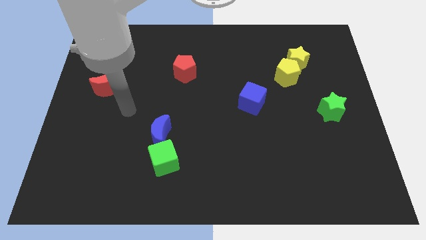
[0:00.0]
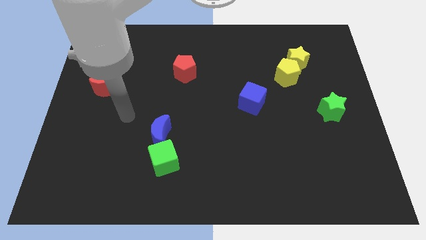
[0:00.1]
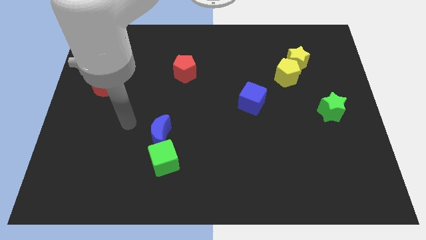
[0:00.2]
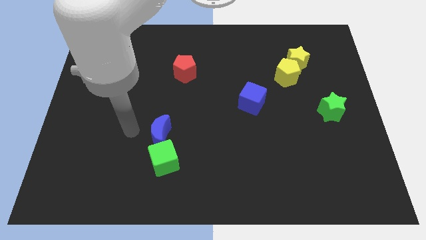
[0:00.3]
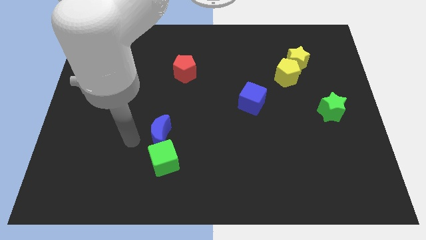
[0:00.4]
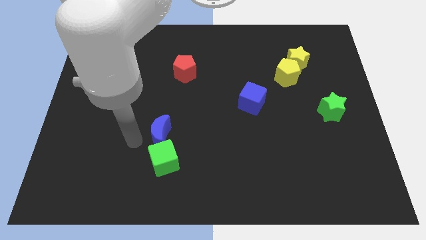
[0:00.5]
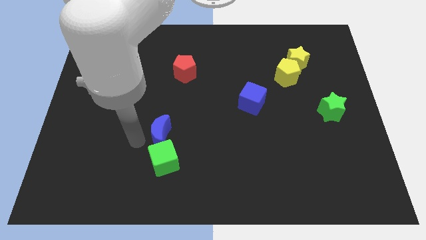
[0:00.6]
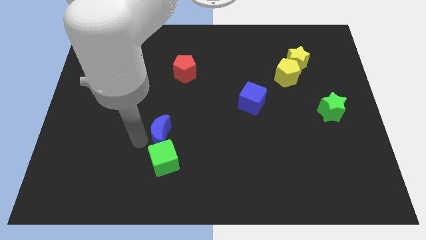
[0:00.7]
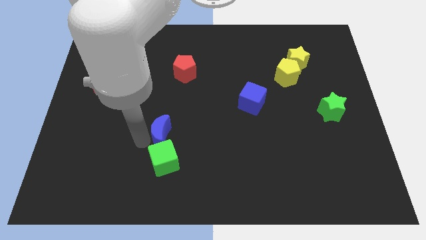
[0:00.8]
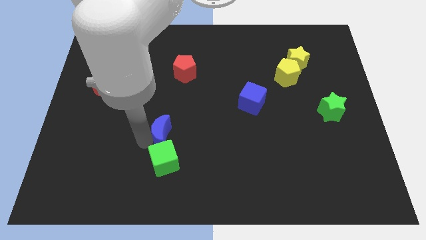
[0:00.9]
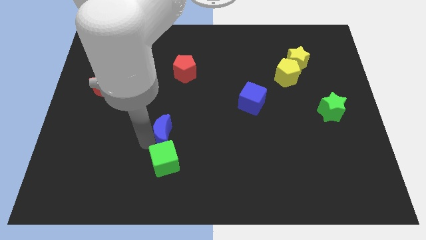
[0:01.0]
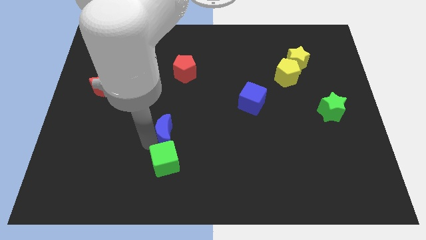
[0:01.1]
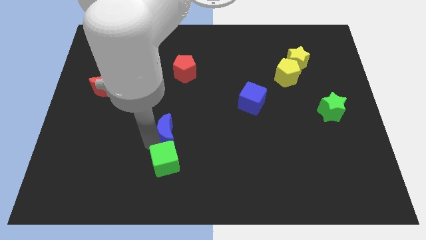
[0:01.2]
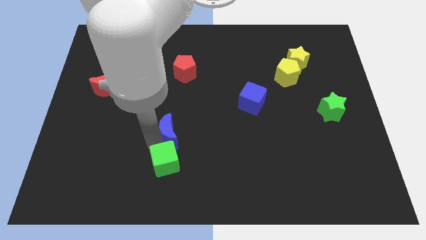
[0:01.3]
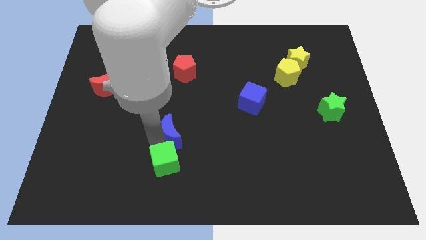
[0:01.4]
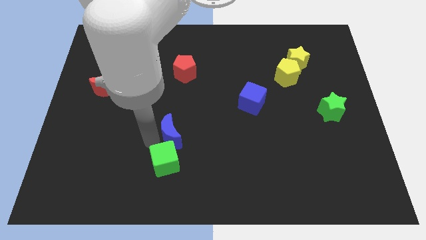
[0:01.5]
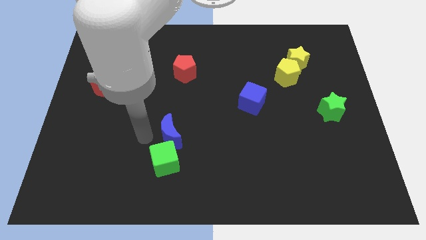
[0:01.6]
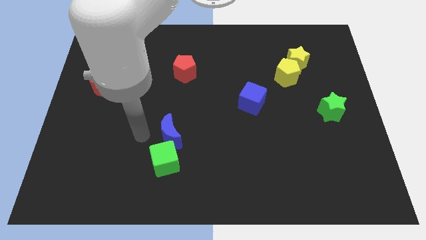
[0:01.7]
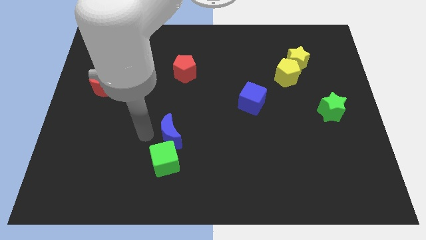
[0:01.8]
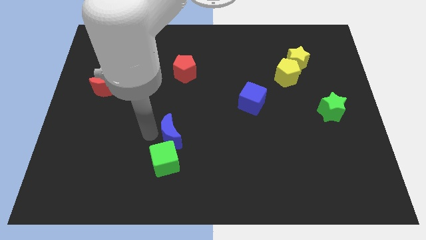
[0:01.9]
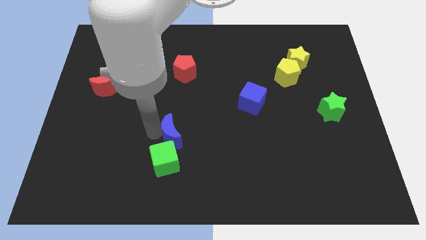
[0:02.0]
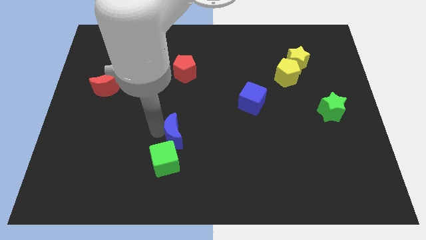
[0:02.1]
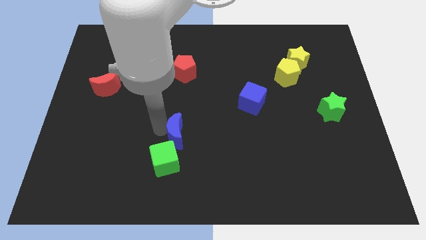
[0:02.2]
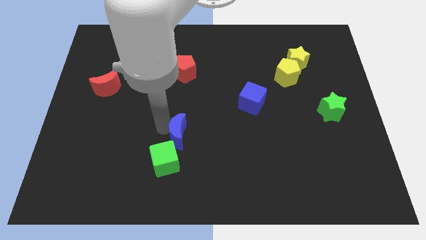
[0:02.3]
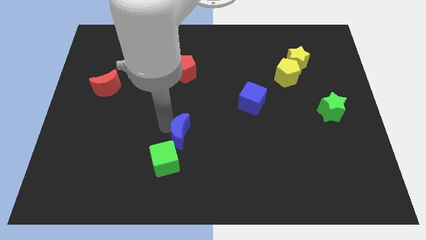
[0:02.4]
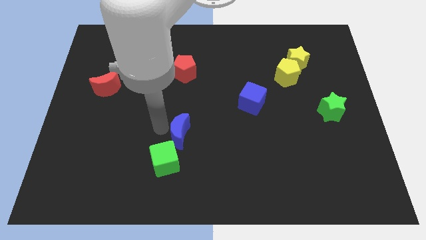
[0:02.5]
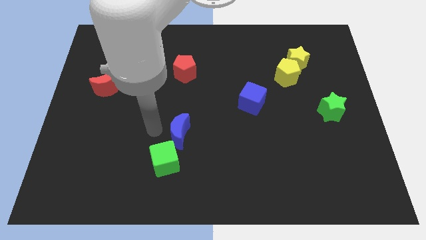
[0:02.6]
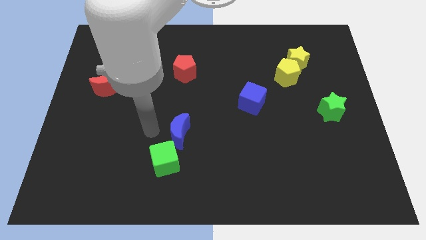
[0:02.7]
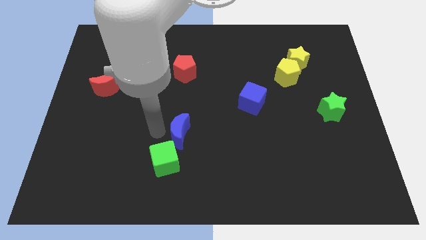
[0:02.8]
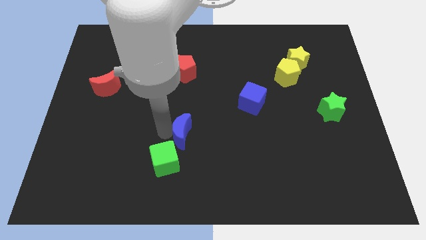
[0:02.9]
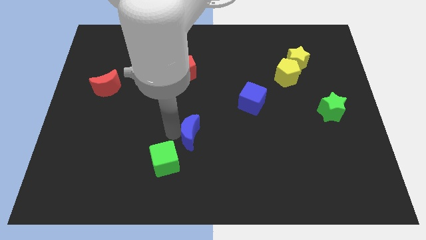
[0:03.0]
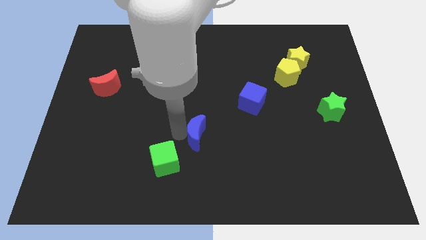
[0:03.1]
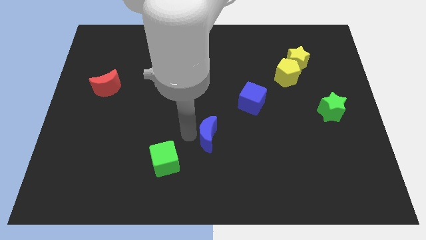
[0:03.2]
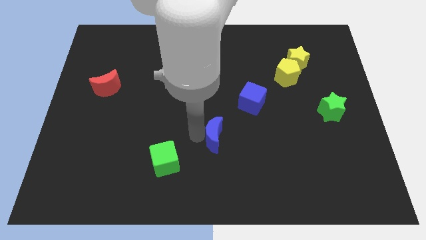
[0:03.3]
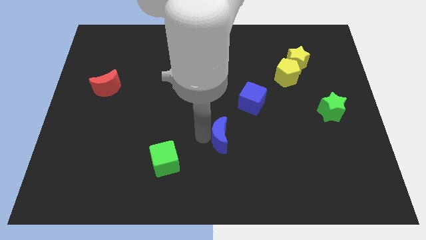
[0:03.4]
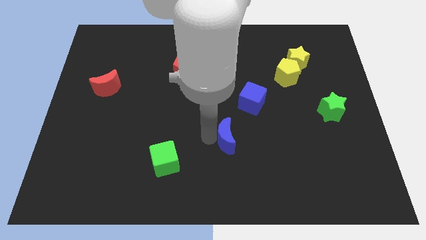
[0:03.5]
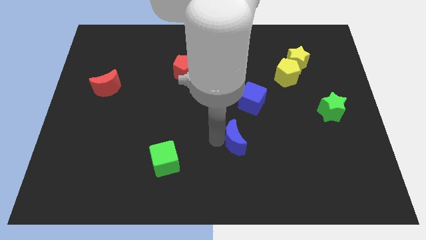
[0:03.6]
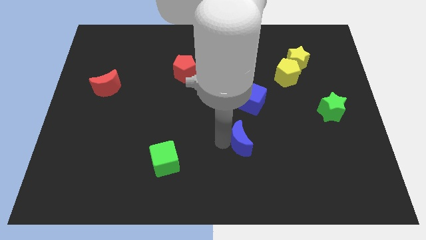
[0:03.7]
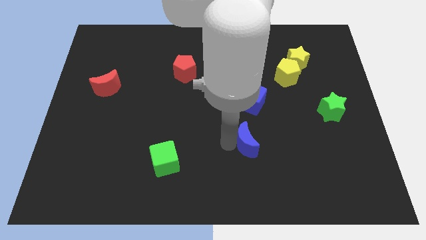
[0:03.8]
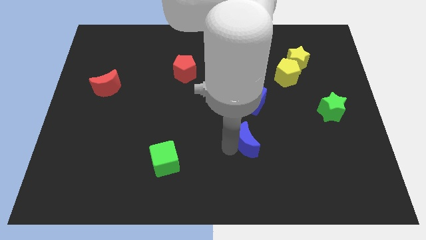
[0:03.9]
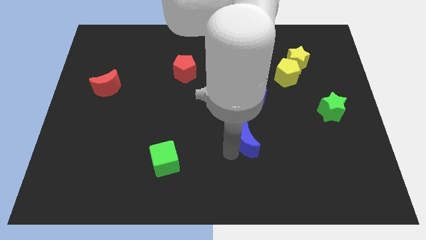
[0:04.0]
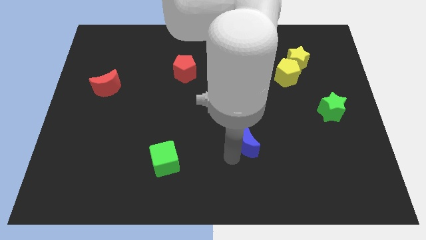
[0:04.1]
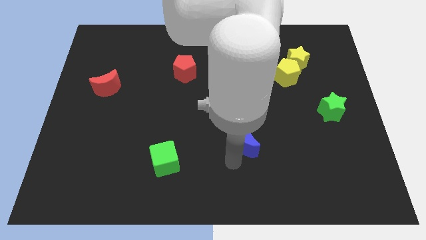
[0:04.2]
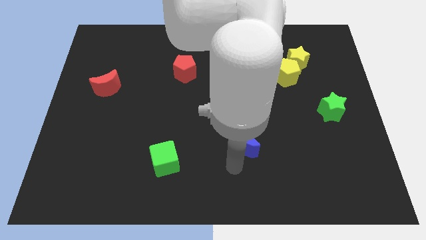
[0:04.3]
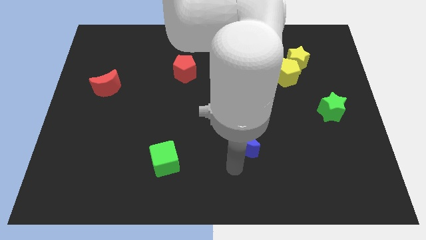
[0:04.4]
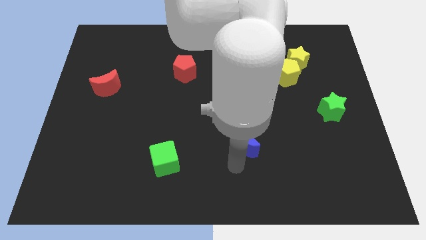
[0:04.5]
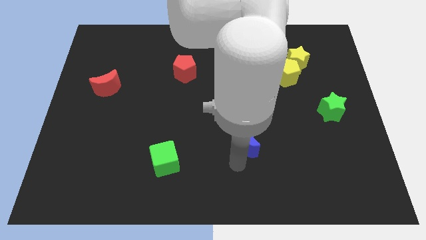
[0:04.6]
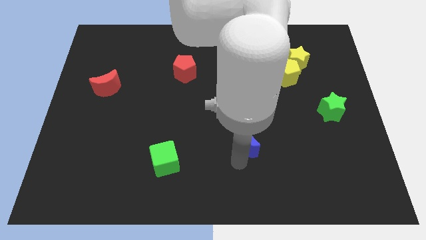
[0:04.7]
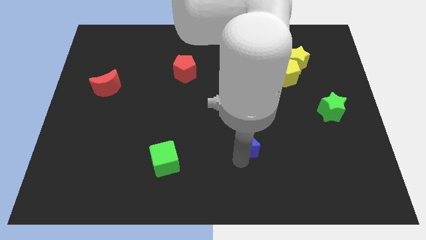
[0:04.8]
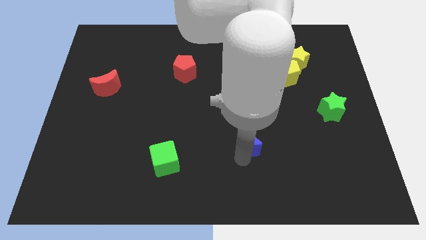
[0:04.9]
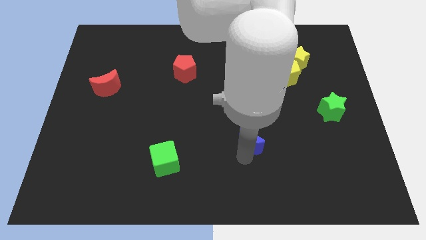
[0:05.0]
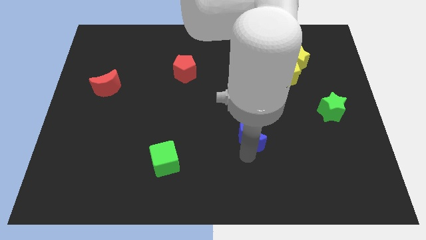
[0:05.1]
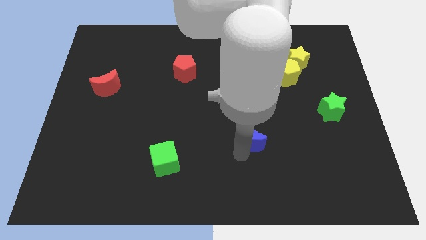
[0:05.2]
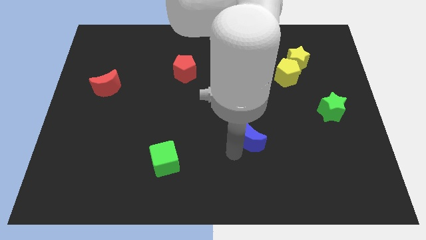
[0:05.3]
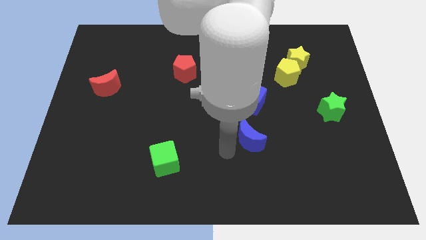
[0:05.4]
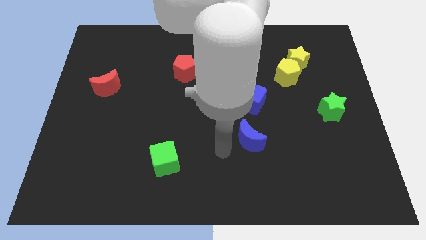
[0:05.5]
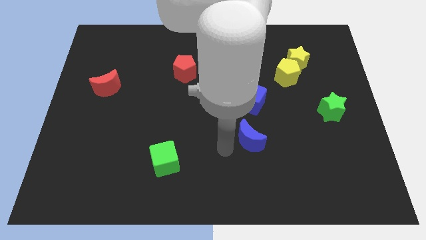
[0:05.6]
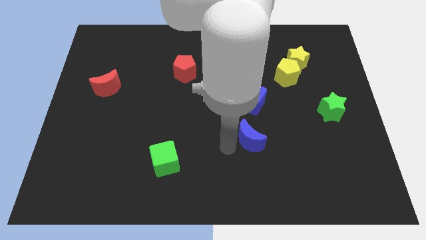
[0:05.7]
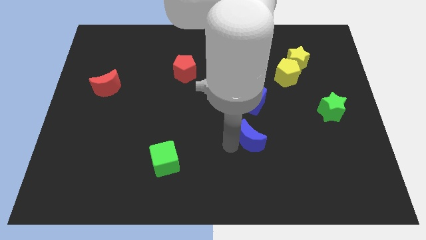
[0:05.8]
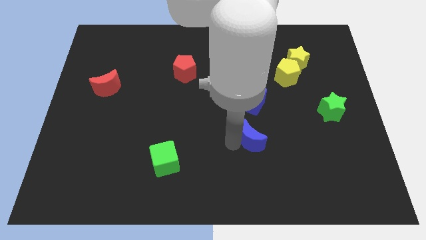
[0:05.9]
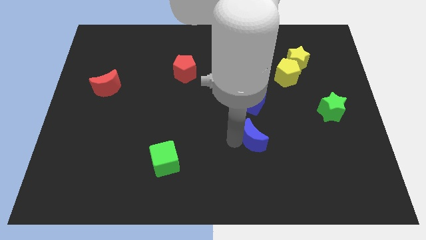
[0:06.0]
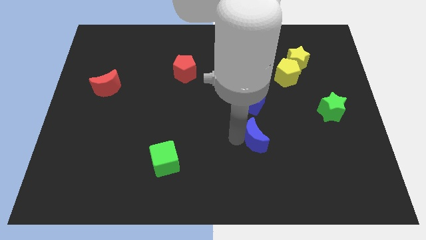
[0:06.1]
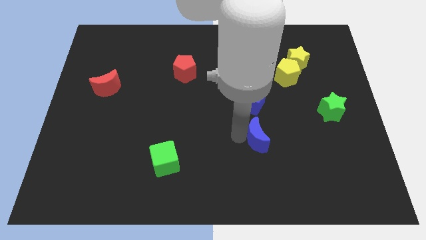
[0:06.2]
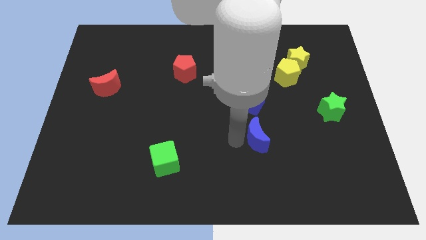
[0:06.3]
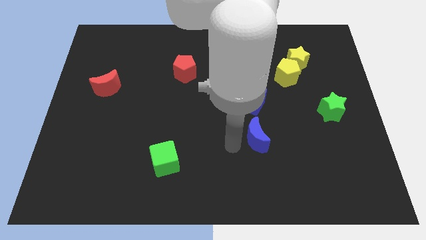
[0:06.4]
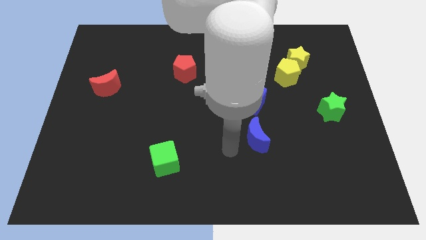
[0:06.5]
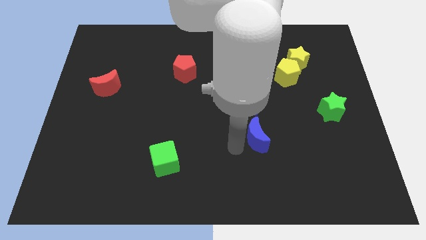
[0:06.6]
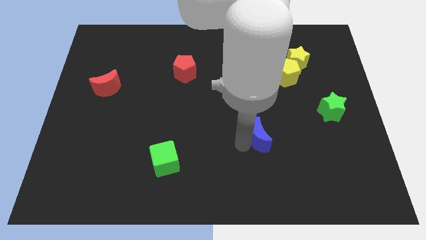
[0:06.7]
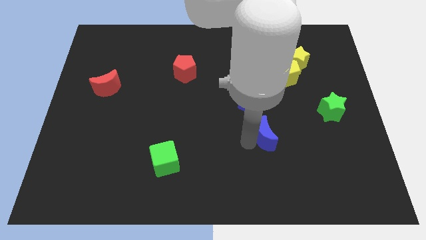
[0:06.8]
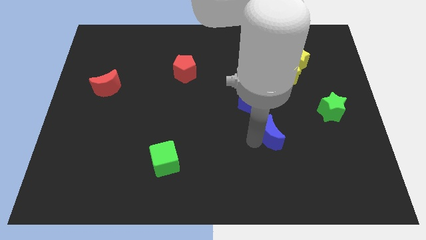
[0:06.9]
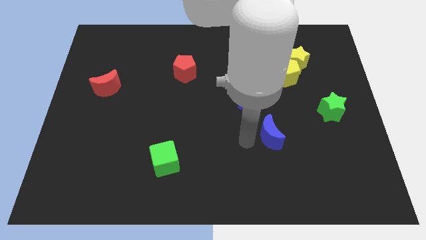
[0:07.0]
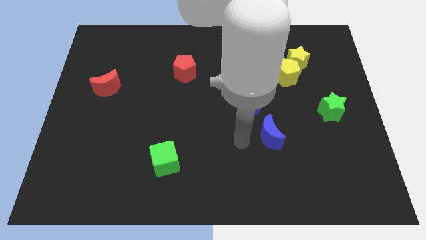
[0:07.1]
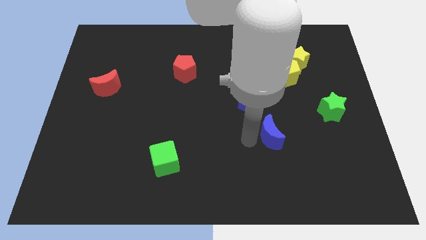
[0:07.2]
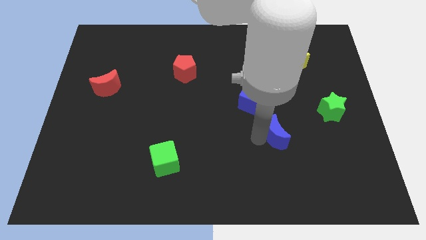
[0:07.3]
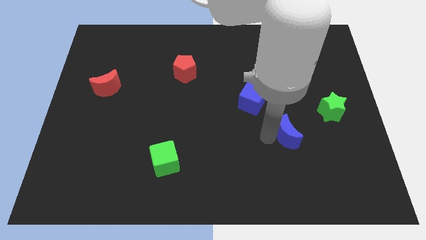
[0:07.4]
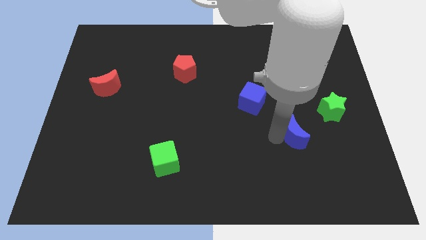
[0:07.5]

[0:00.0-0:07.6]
slide the blue moon diagonally down and to the left of the green star
